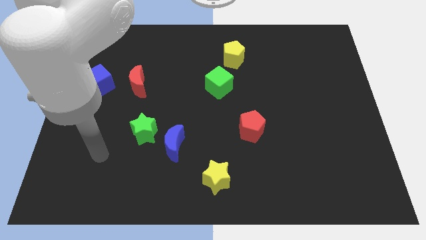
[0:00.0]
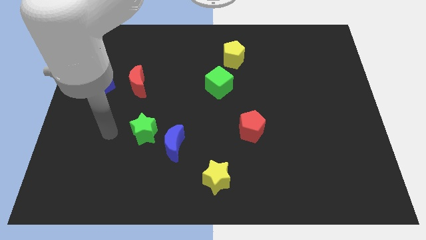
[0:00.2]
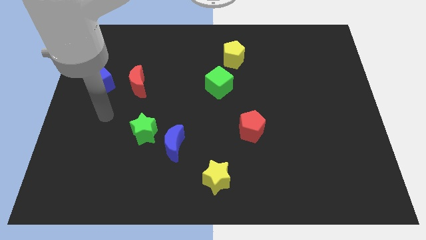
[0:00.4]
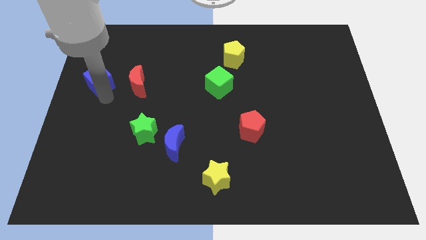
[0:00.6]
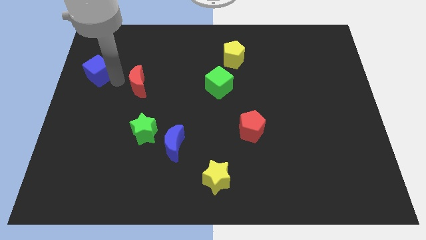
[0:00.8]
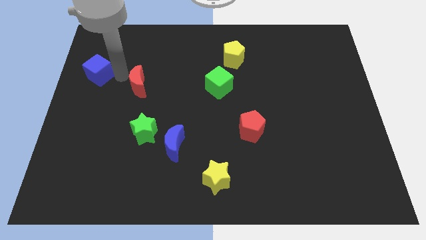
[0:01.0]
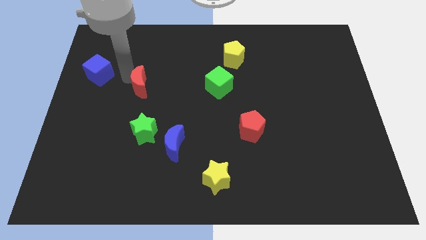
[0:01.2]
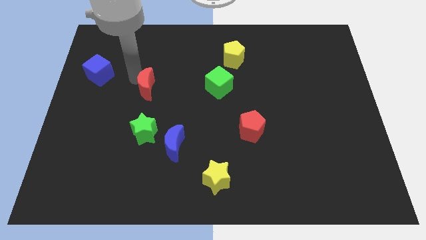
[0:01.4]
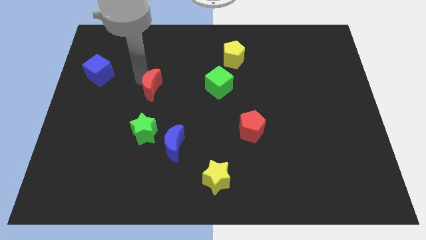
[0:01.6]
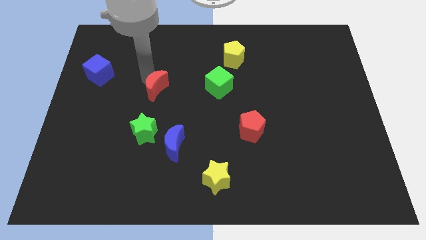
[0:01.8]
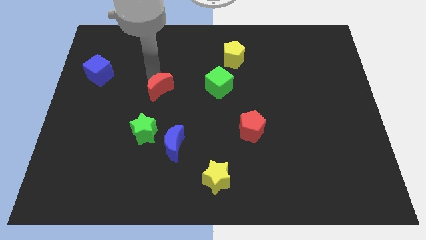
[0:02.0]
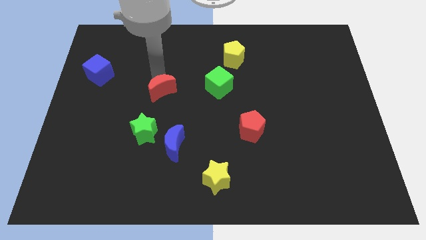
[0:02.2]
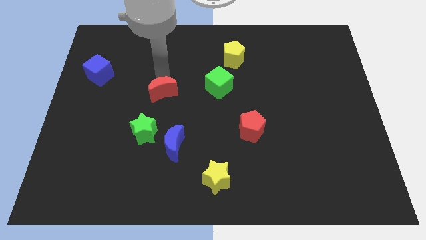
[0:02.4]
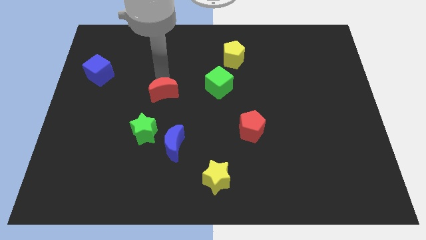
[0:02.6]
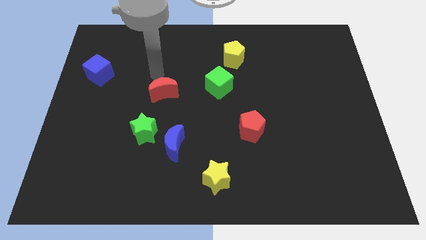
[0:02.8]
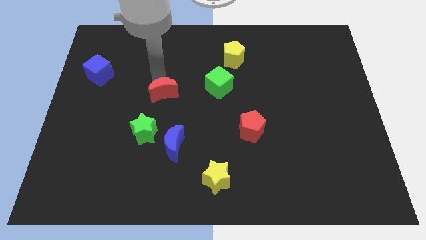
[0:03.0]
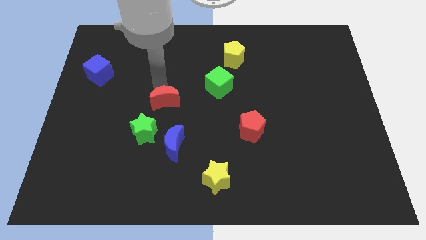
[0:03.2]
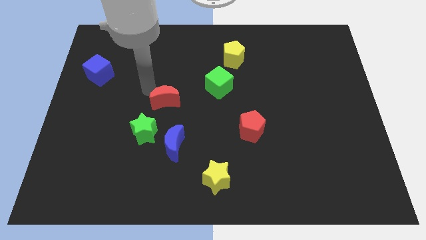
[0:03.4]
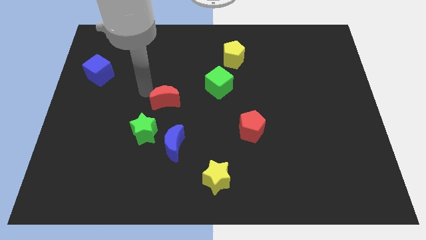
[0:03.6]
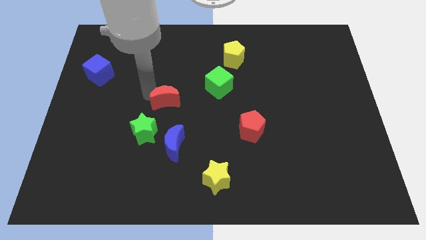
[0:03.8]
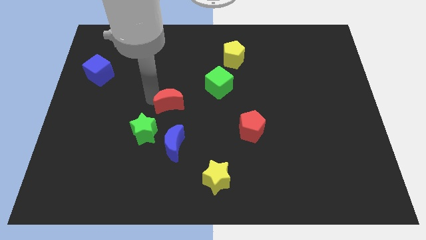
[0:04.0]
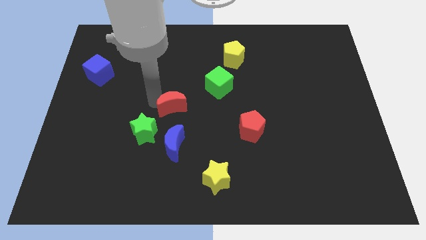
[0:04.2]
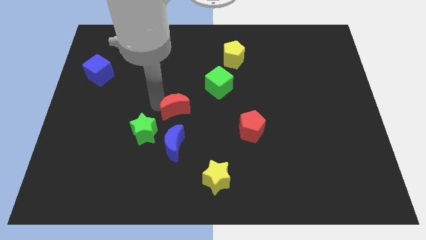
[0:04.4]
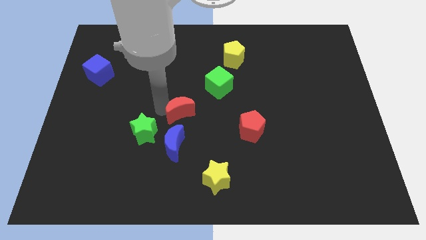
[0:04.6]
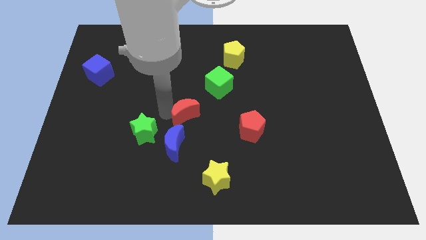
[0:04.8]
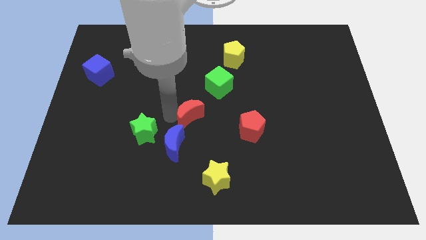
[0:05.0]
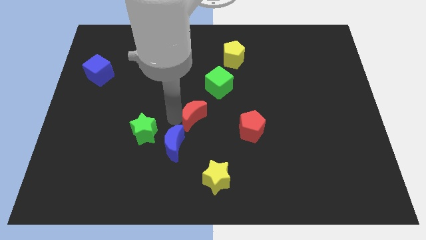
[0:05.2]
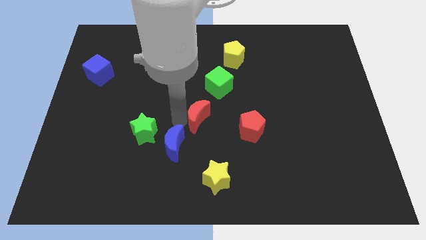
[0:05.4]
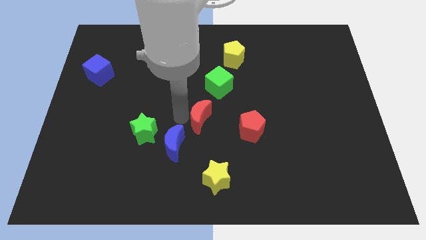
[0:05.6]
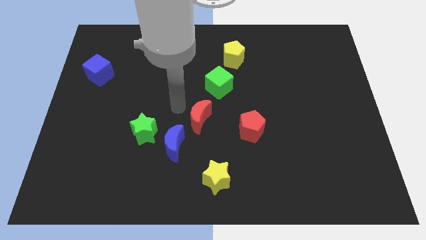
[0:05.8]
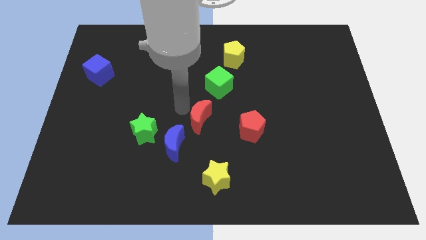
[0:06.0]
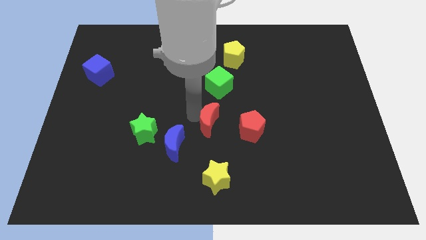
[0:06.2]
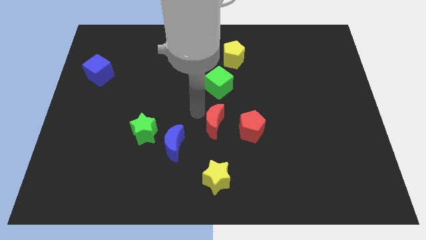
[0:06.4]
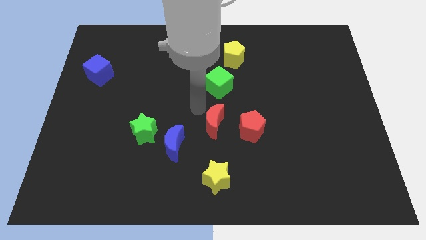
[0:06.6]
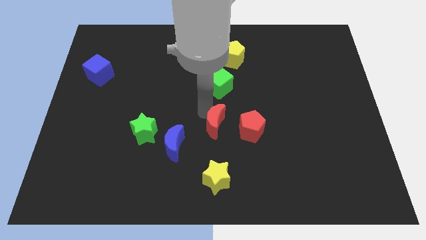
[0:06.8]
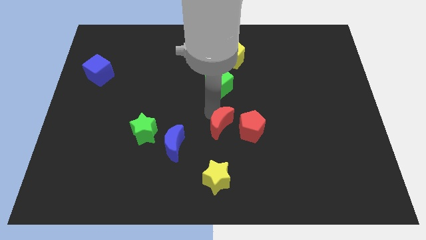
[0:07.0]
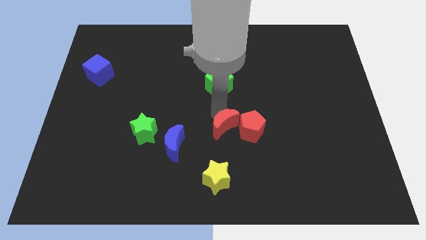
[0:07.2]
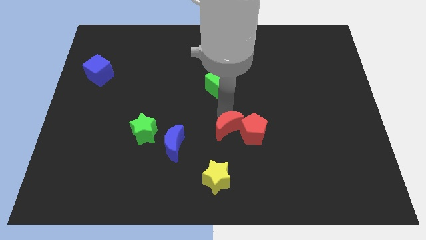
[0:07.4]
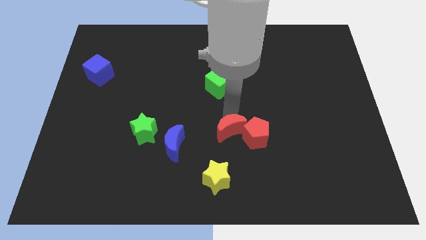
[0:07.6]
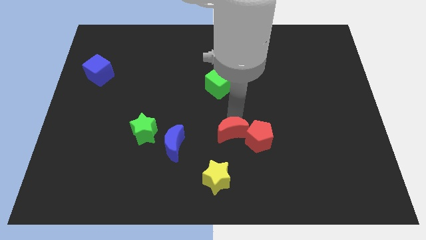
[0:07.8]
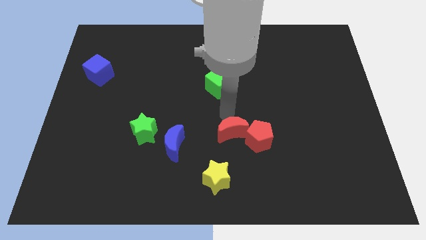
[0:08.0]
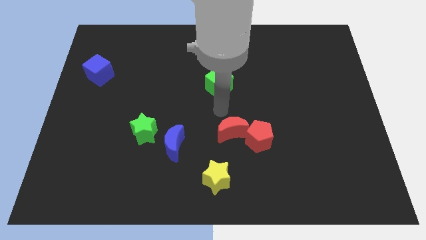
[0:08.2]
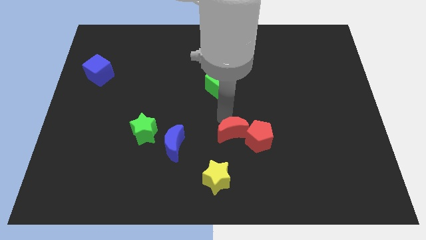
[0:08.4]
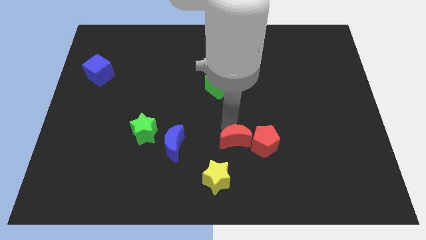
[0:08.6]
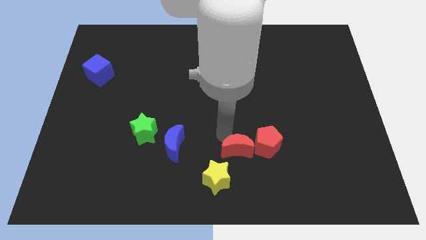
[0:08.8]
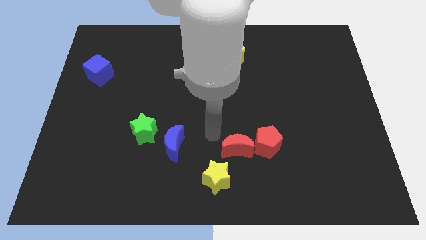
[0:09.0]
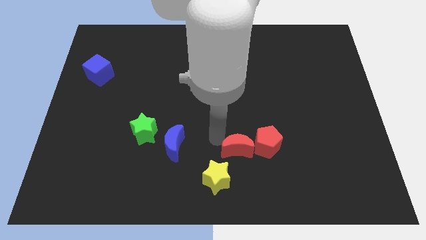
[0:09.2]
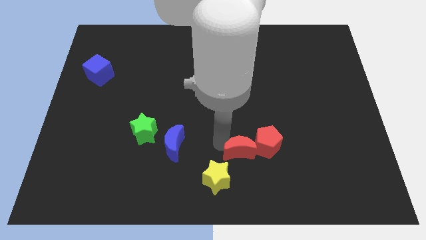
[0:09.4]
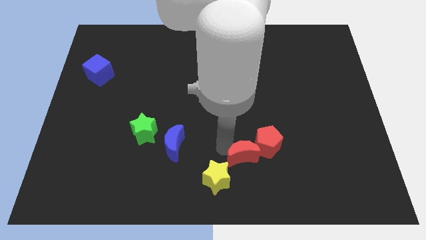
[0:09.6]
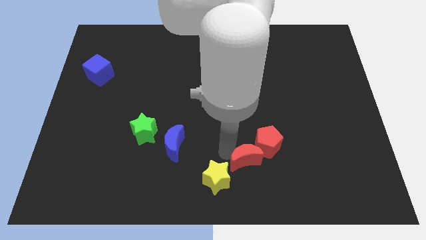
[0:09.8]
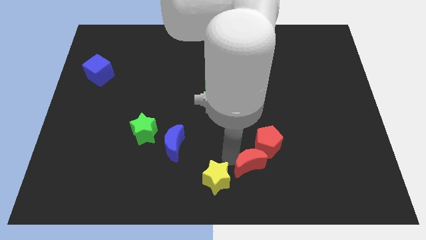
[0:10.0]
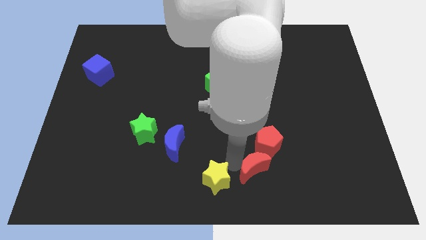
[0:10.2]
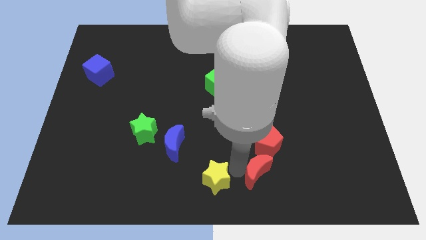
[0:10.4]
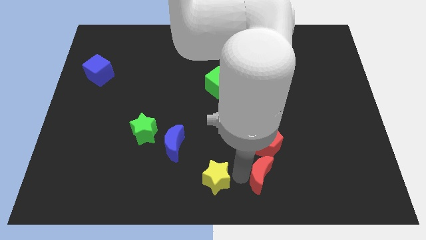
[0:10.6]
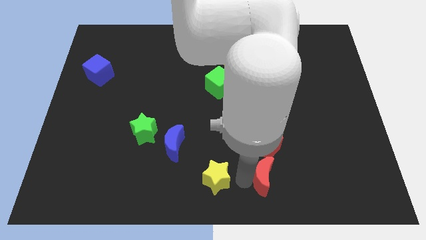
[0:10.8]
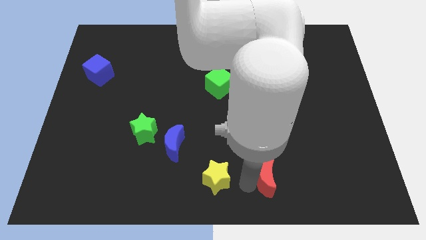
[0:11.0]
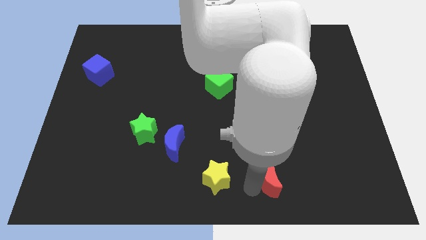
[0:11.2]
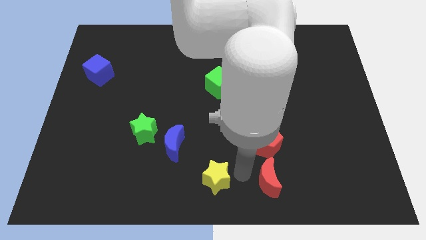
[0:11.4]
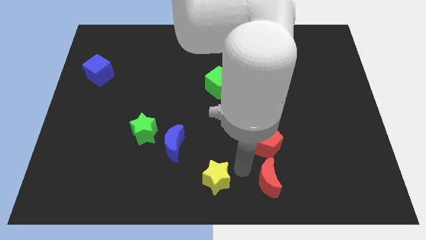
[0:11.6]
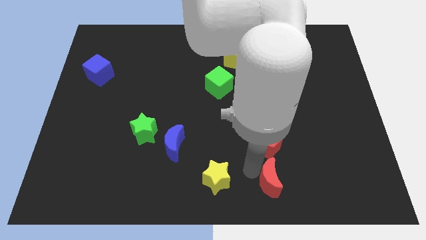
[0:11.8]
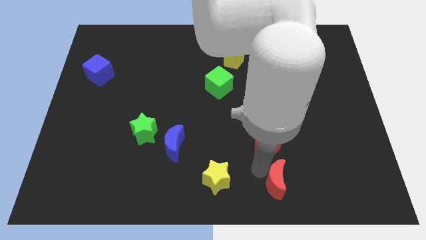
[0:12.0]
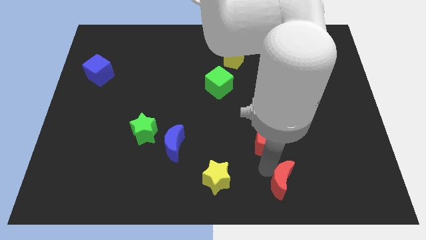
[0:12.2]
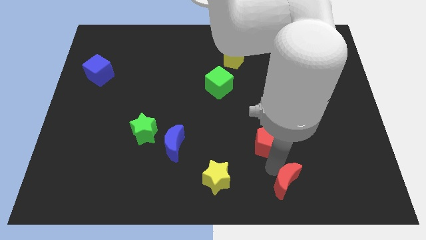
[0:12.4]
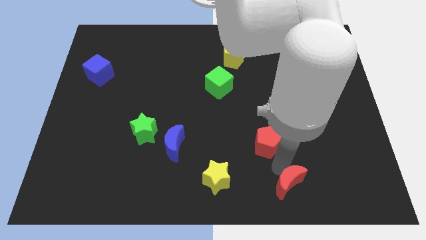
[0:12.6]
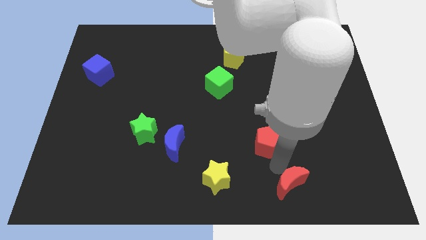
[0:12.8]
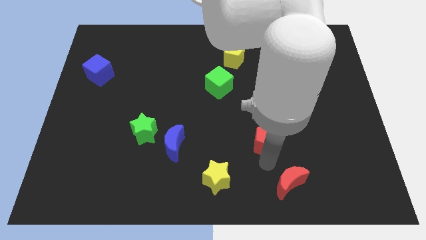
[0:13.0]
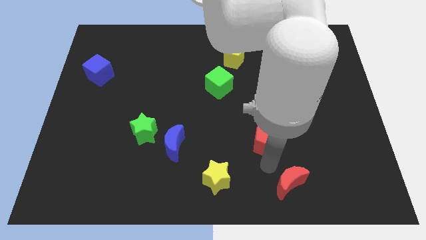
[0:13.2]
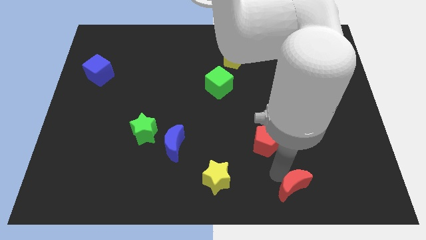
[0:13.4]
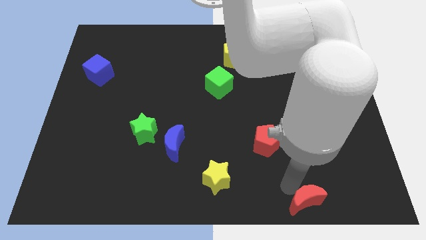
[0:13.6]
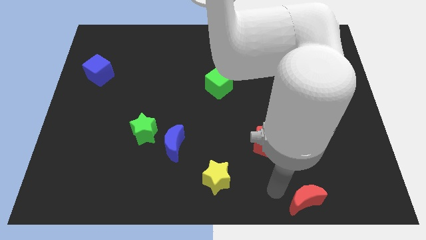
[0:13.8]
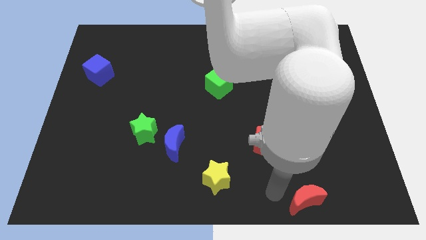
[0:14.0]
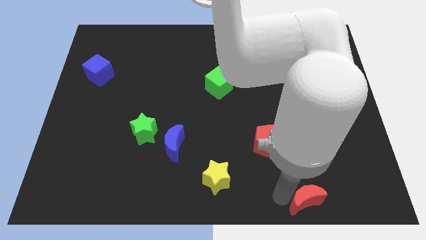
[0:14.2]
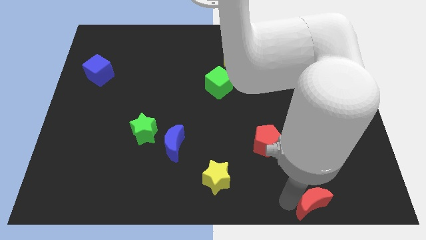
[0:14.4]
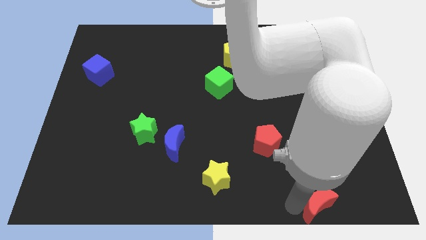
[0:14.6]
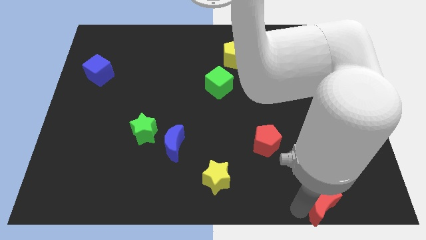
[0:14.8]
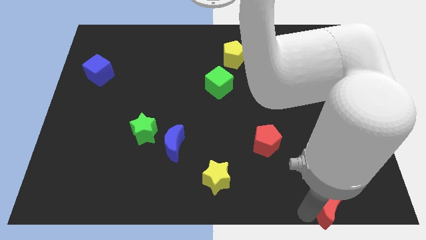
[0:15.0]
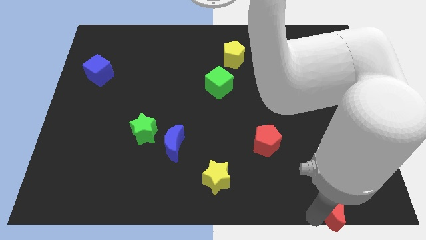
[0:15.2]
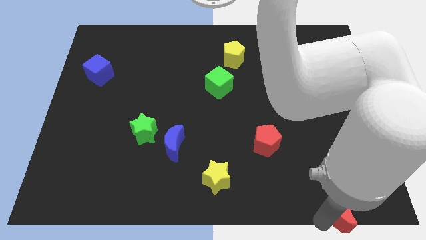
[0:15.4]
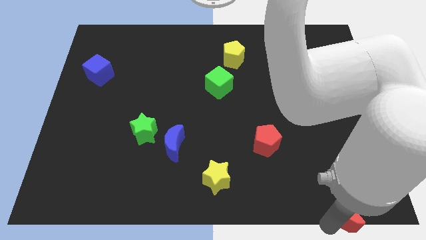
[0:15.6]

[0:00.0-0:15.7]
move the red moon to the lower right corner
